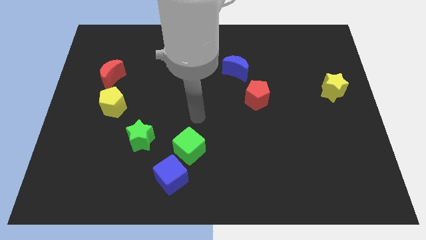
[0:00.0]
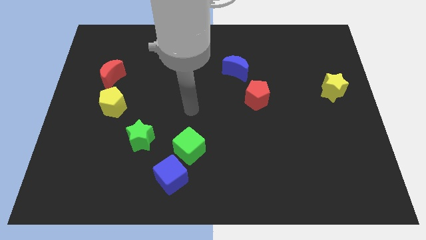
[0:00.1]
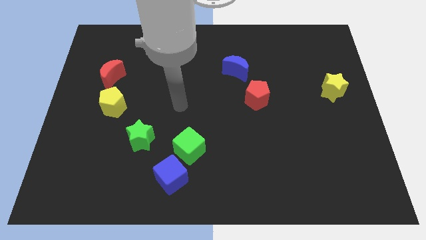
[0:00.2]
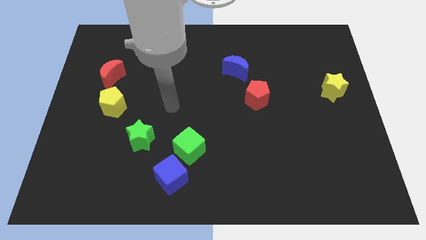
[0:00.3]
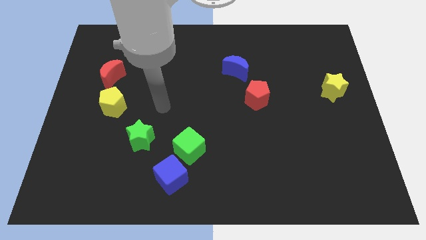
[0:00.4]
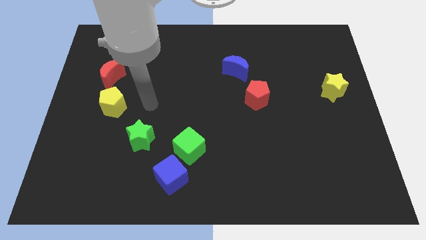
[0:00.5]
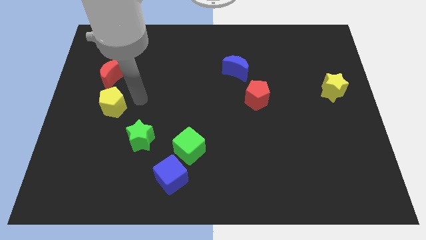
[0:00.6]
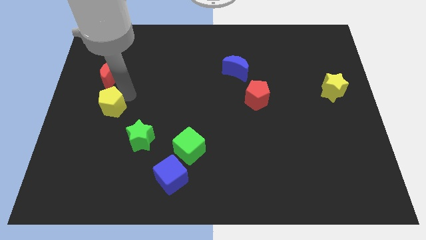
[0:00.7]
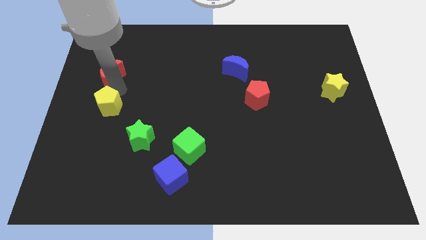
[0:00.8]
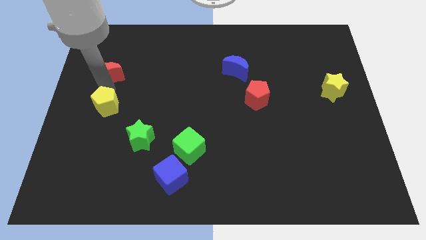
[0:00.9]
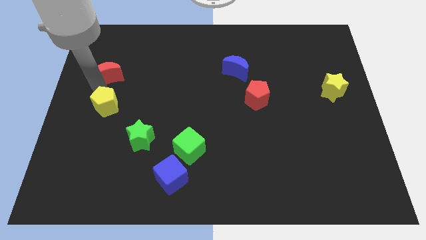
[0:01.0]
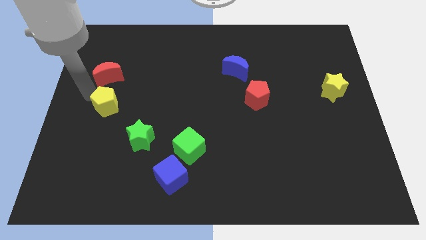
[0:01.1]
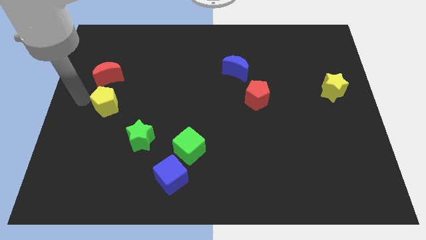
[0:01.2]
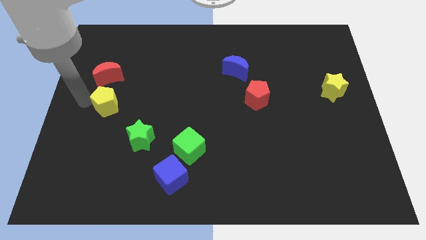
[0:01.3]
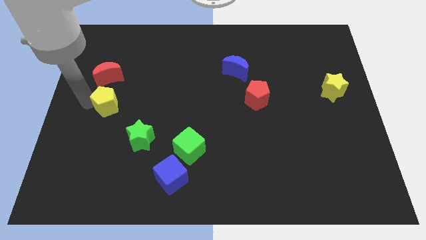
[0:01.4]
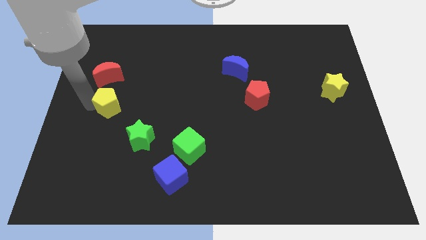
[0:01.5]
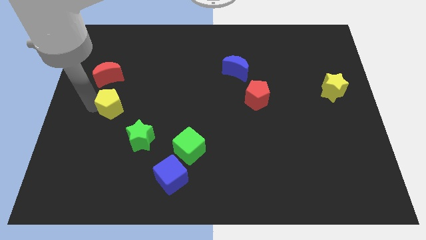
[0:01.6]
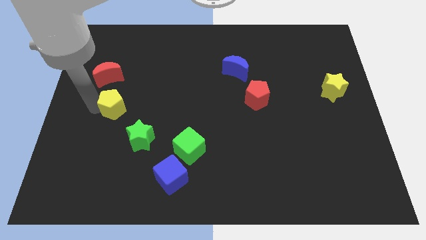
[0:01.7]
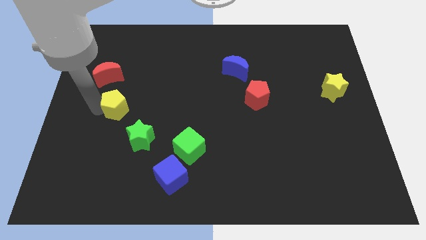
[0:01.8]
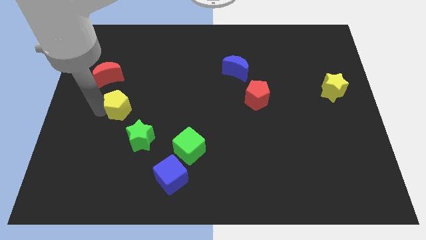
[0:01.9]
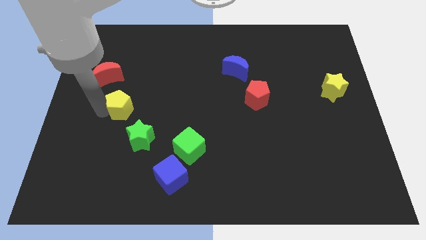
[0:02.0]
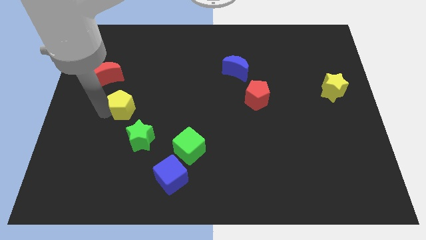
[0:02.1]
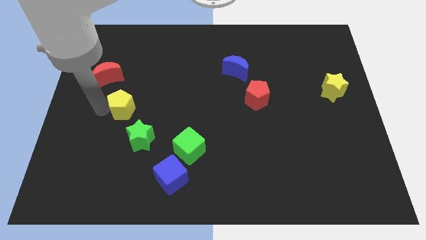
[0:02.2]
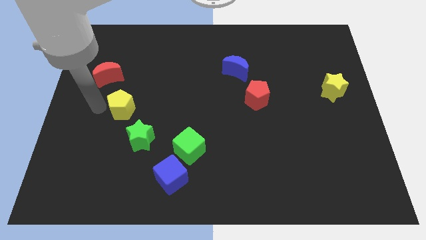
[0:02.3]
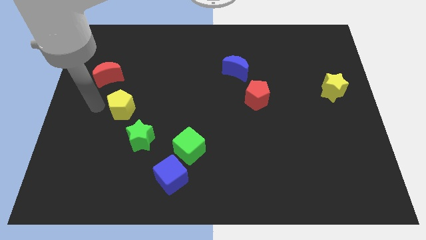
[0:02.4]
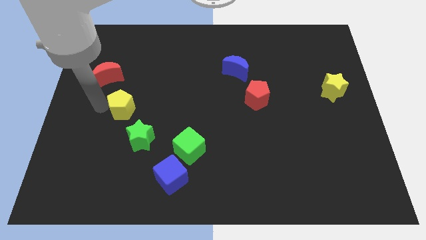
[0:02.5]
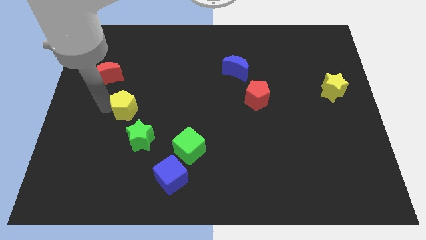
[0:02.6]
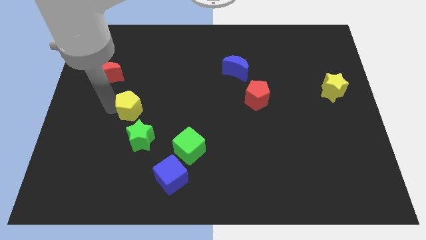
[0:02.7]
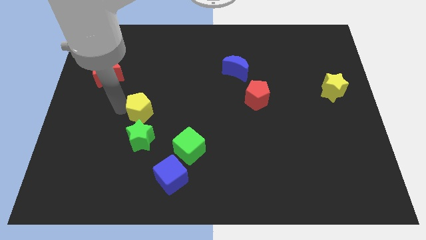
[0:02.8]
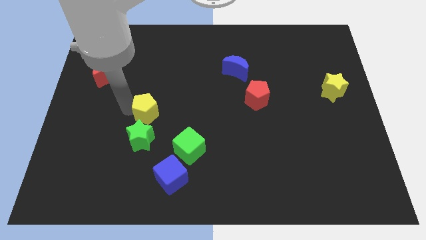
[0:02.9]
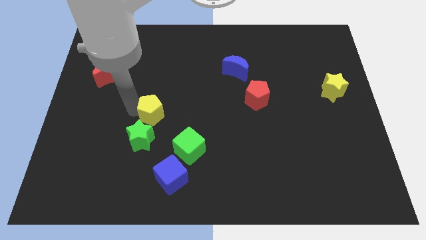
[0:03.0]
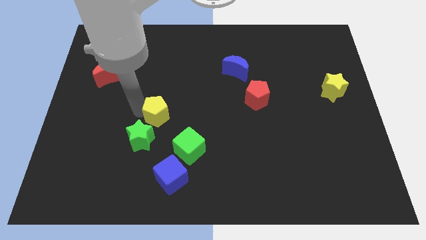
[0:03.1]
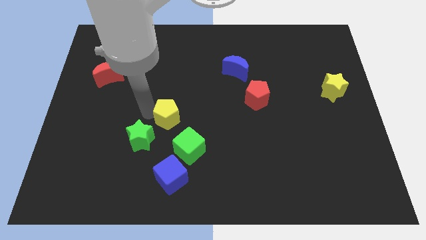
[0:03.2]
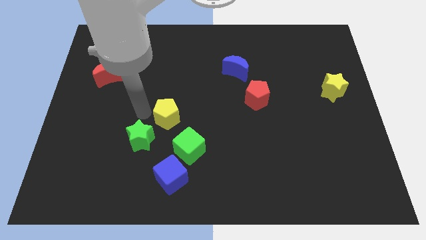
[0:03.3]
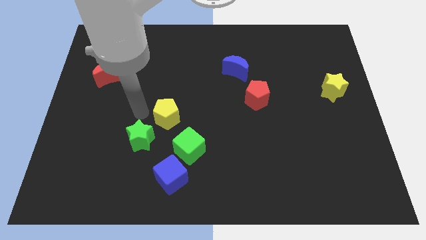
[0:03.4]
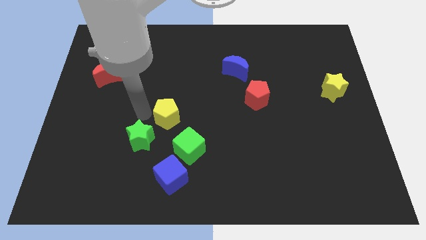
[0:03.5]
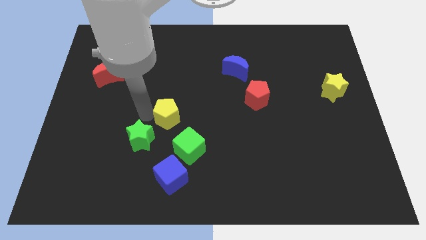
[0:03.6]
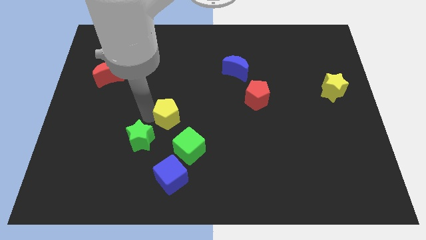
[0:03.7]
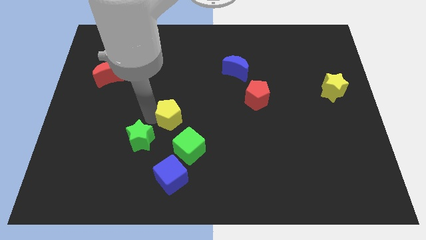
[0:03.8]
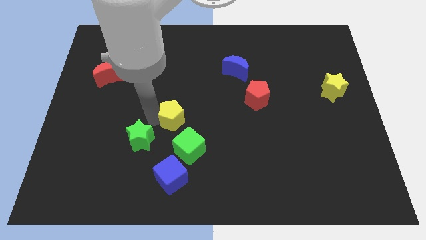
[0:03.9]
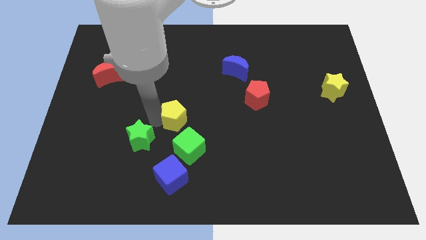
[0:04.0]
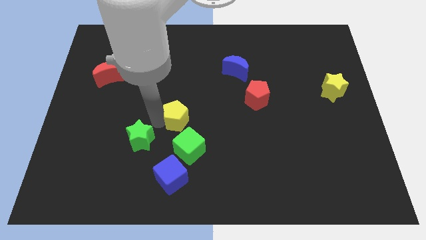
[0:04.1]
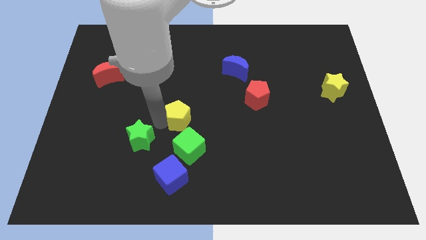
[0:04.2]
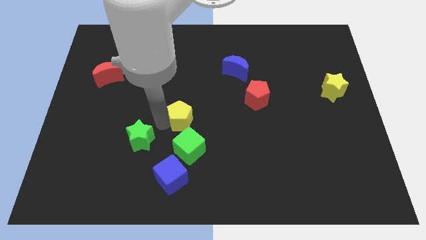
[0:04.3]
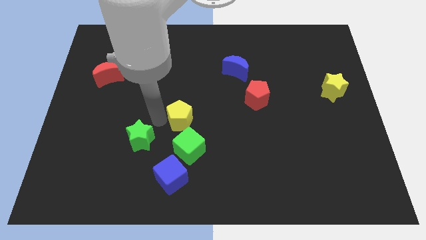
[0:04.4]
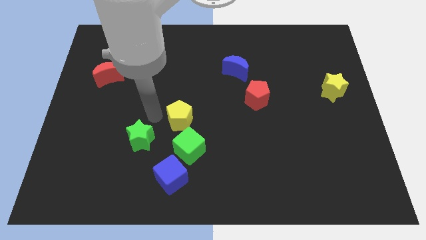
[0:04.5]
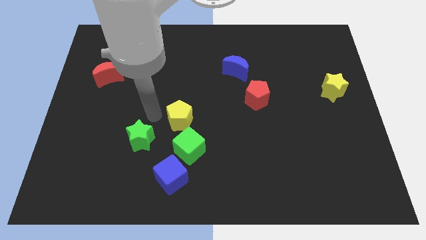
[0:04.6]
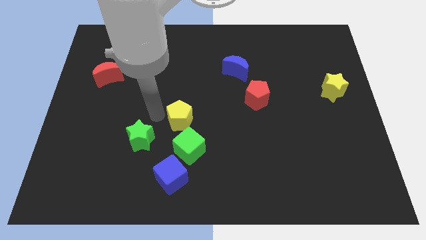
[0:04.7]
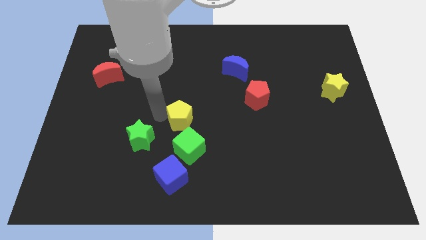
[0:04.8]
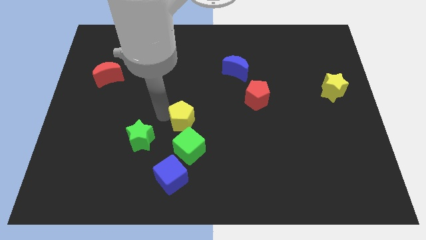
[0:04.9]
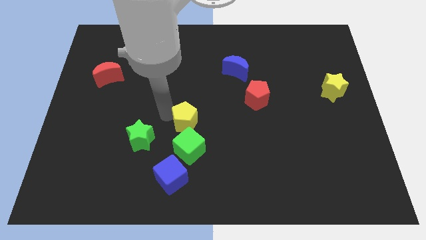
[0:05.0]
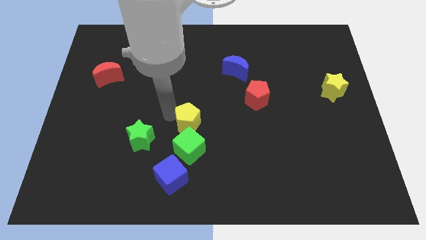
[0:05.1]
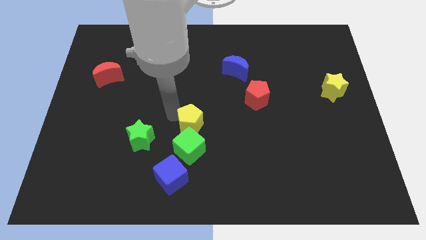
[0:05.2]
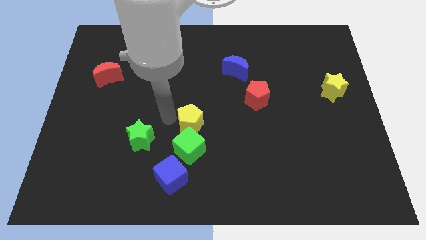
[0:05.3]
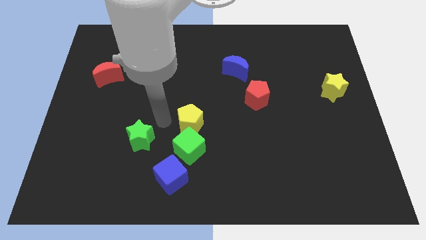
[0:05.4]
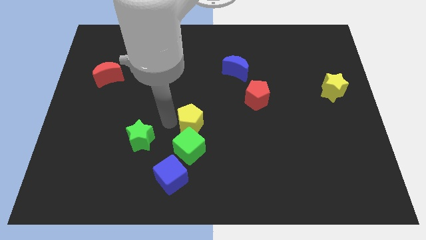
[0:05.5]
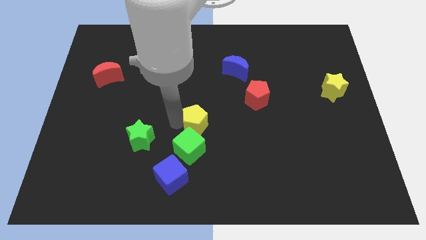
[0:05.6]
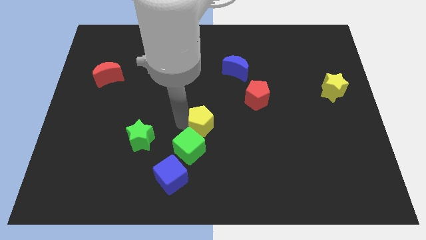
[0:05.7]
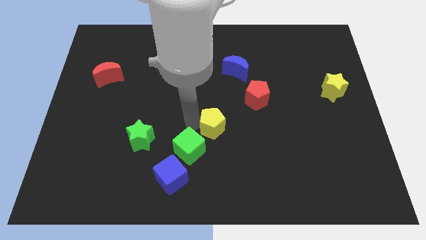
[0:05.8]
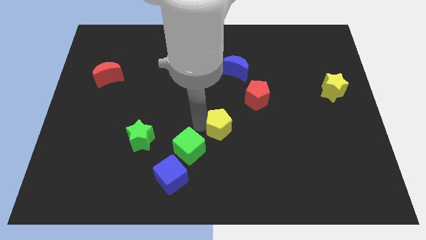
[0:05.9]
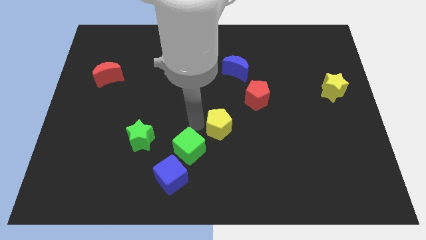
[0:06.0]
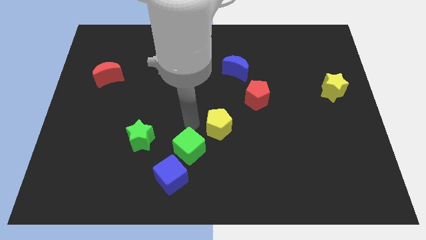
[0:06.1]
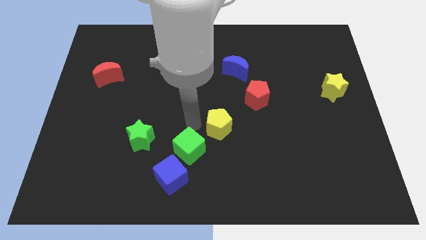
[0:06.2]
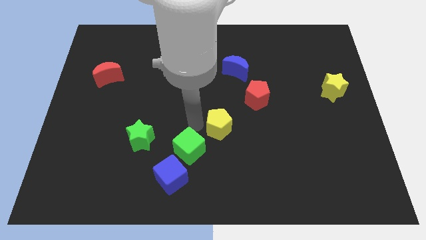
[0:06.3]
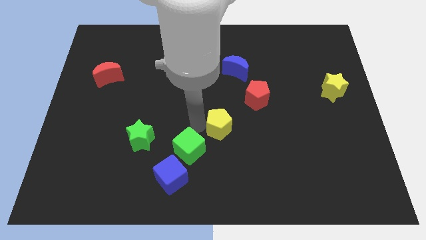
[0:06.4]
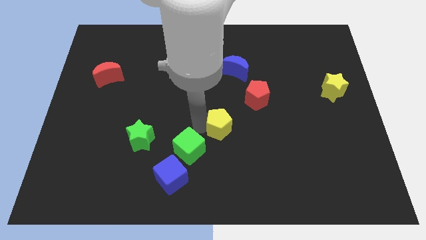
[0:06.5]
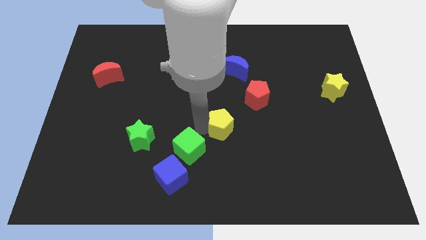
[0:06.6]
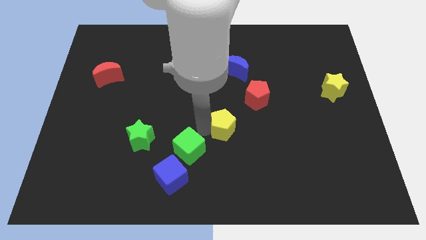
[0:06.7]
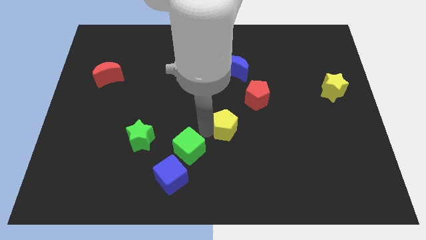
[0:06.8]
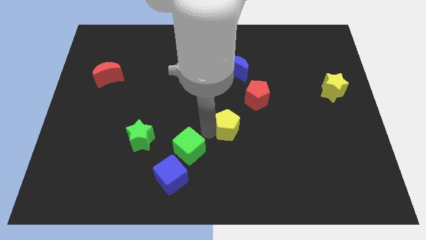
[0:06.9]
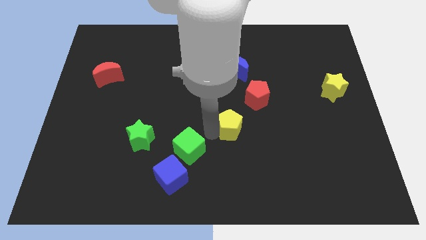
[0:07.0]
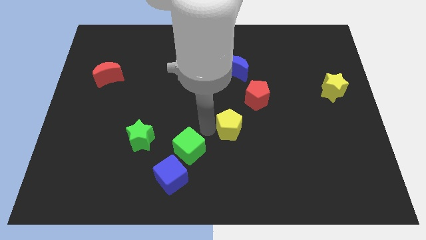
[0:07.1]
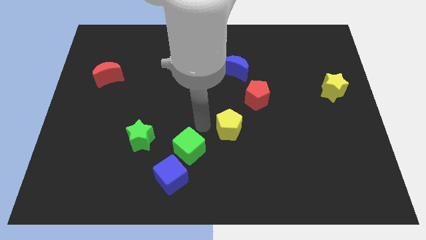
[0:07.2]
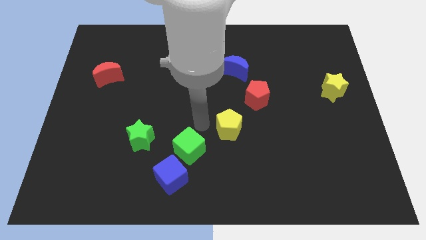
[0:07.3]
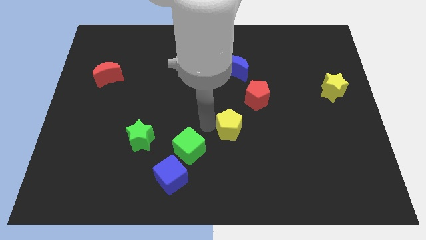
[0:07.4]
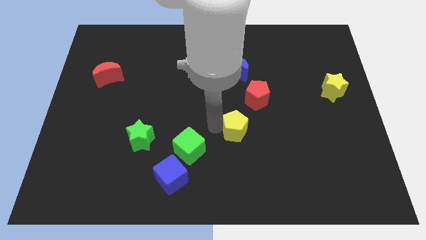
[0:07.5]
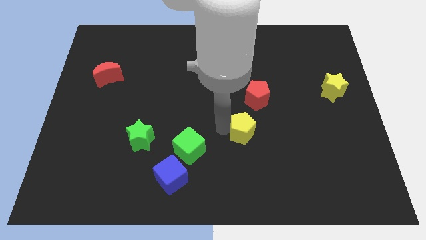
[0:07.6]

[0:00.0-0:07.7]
put the yellow pentagon below the red pentagon
